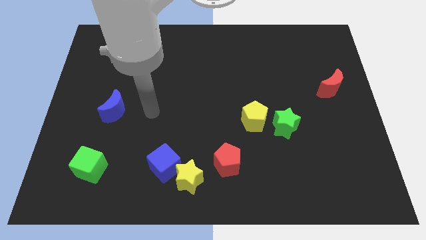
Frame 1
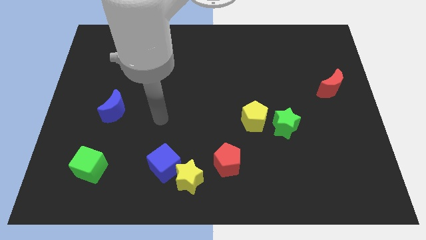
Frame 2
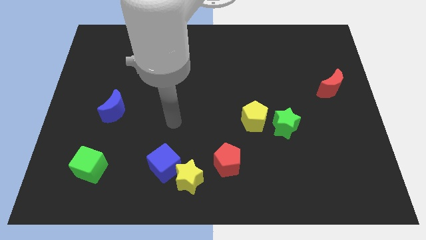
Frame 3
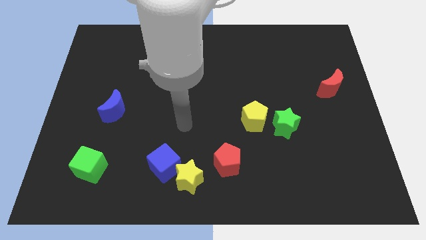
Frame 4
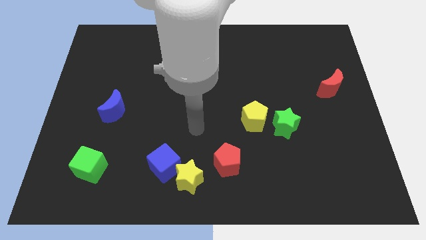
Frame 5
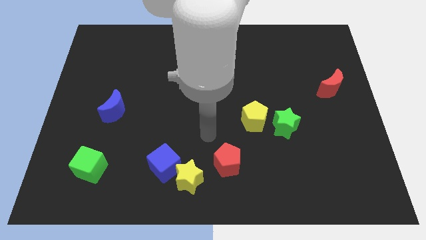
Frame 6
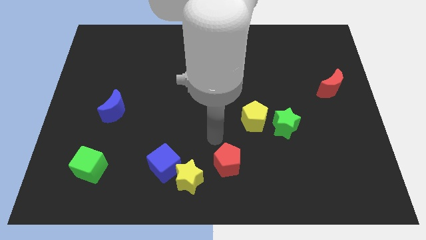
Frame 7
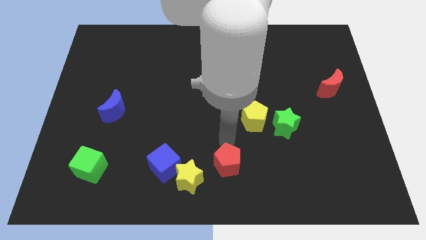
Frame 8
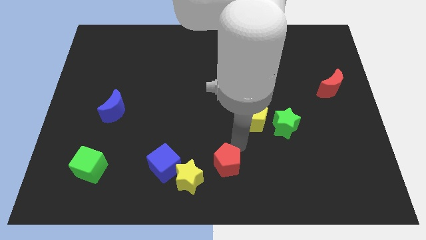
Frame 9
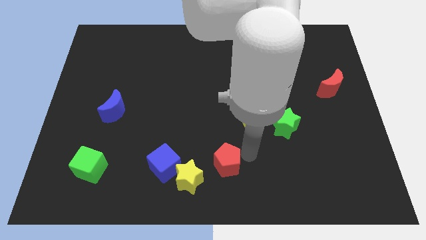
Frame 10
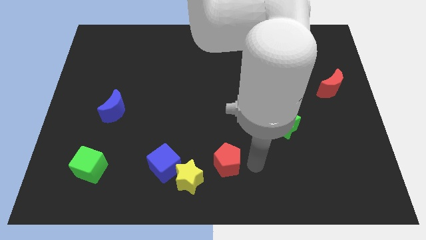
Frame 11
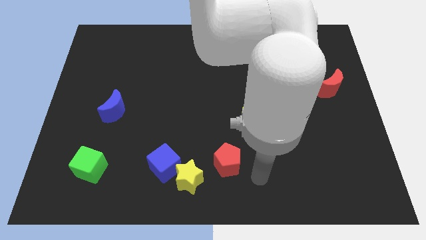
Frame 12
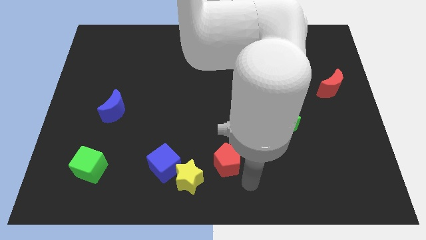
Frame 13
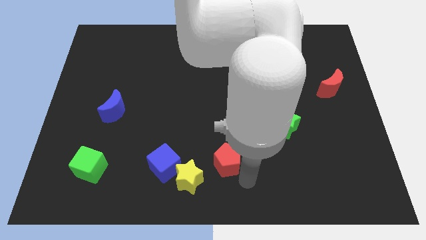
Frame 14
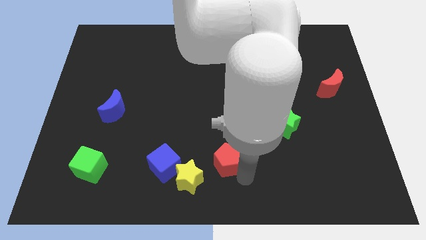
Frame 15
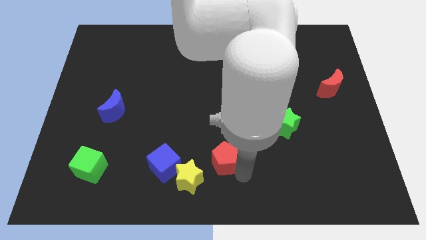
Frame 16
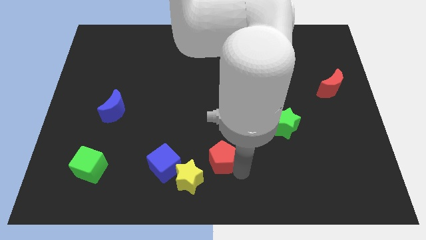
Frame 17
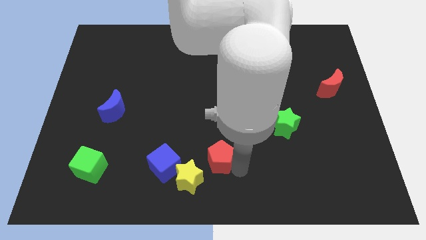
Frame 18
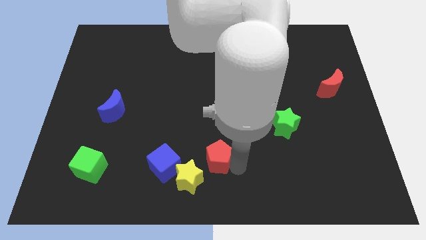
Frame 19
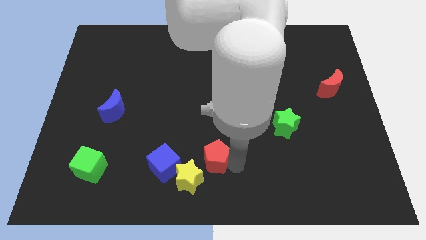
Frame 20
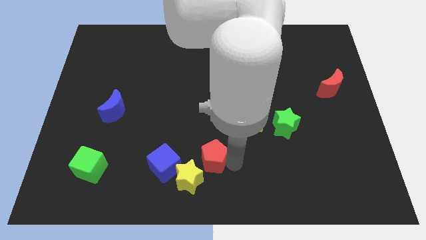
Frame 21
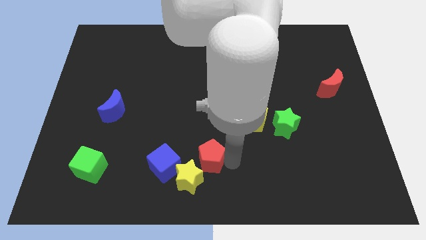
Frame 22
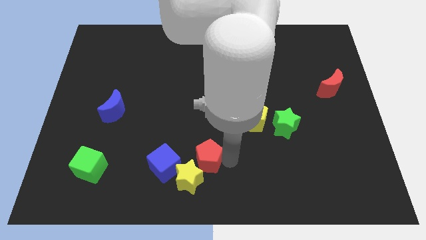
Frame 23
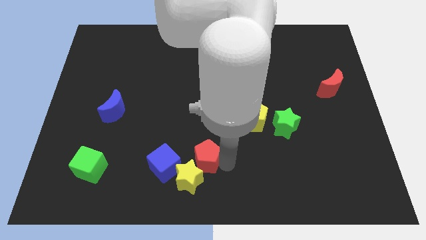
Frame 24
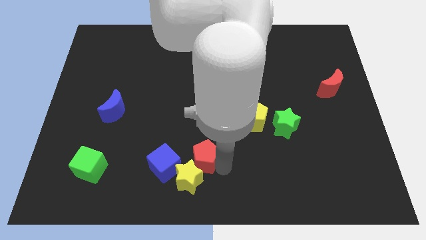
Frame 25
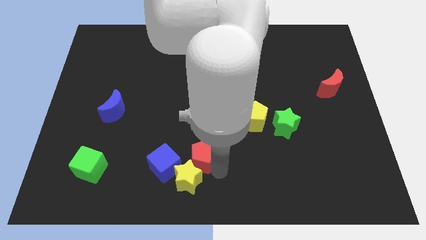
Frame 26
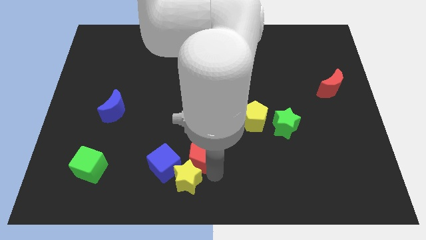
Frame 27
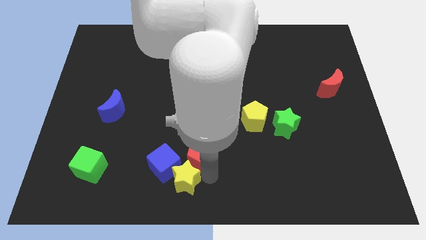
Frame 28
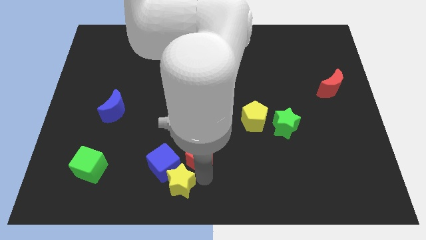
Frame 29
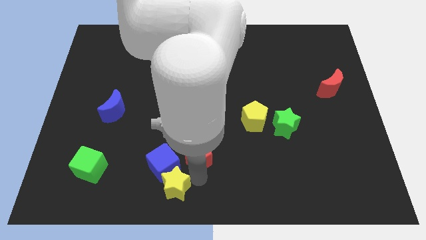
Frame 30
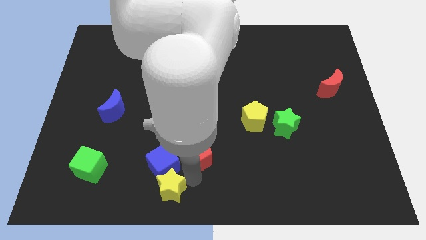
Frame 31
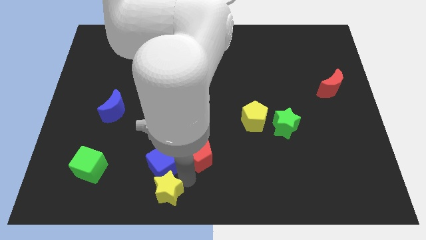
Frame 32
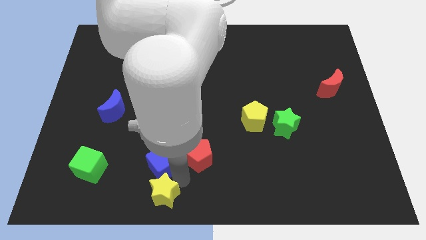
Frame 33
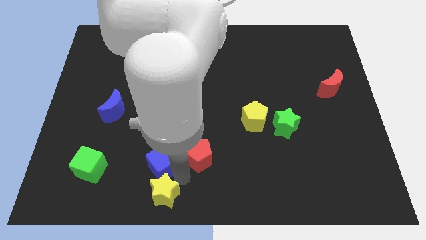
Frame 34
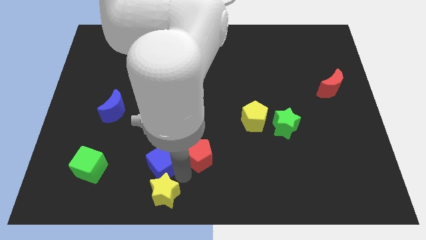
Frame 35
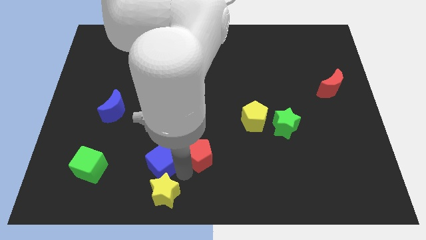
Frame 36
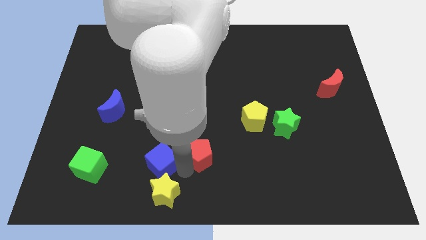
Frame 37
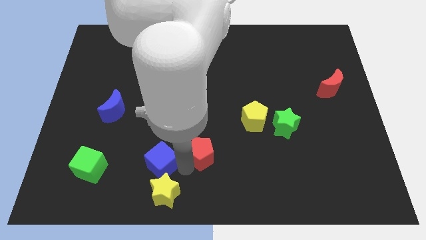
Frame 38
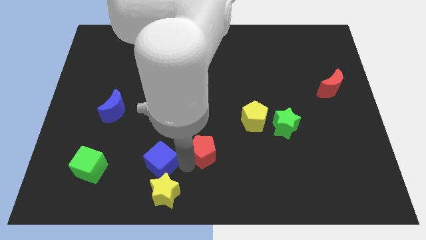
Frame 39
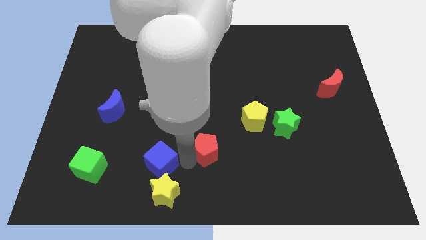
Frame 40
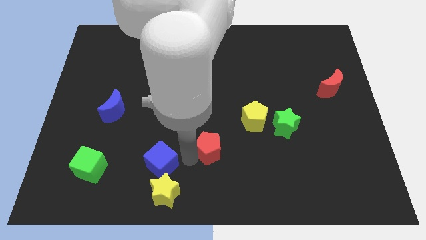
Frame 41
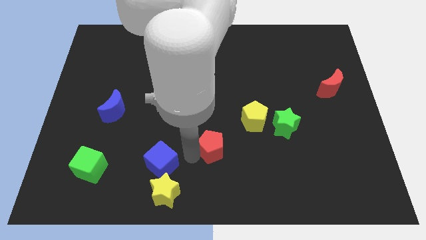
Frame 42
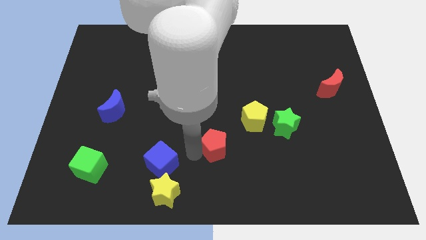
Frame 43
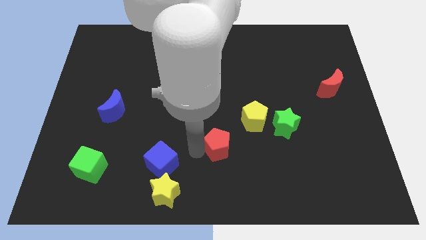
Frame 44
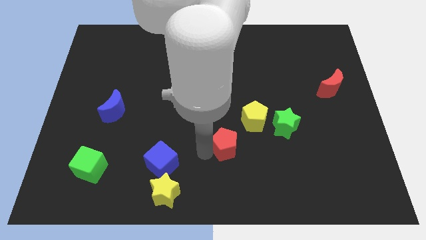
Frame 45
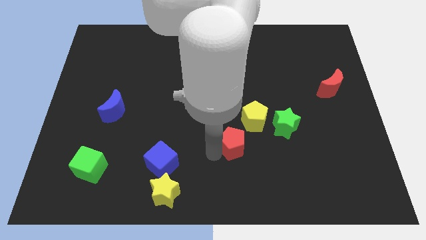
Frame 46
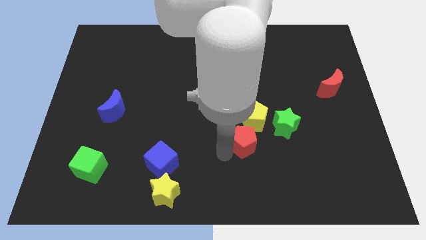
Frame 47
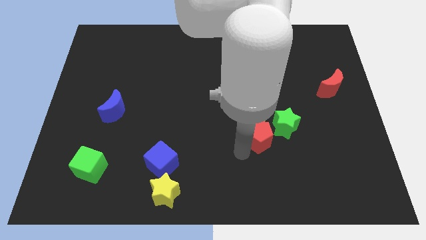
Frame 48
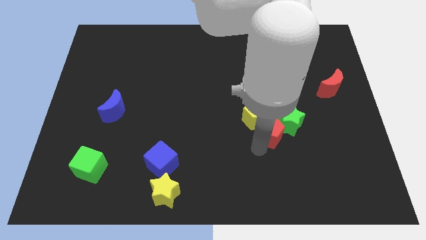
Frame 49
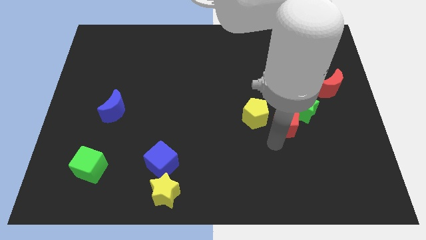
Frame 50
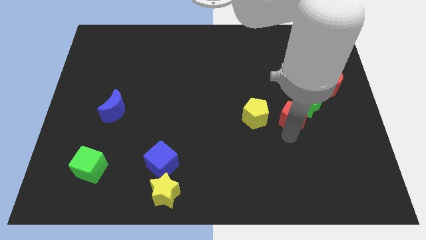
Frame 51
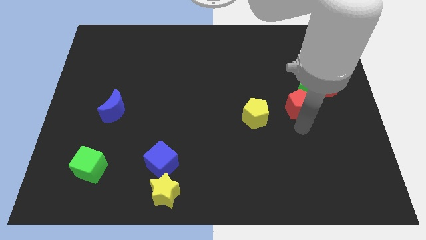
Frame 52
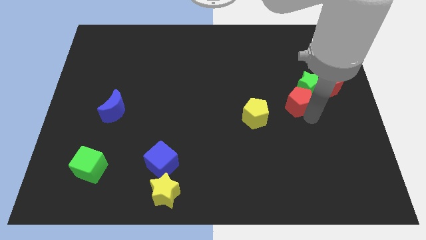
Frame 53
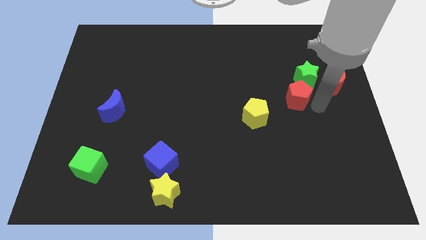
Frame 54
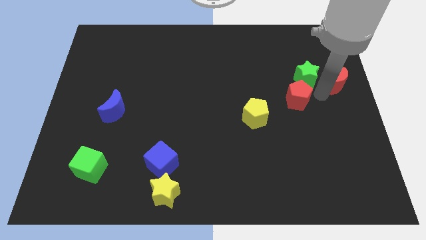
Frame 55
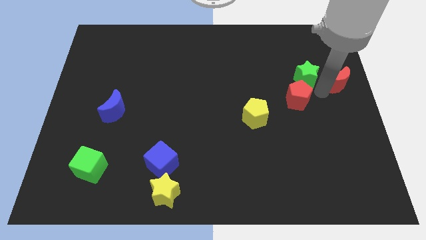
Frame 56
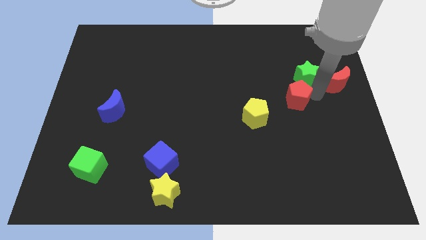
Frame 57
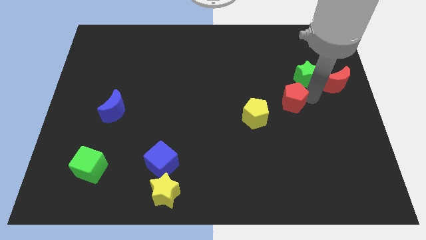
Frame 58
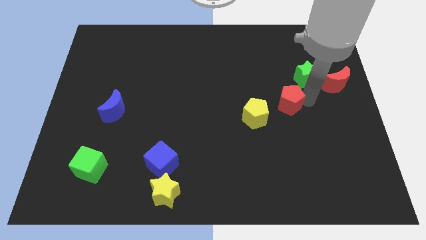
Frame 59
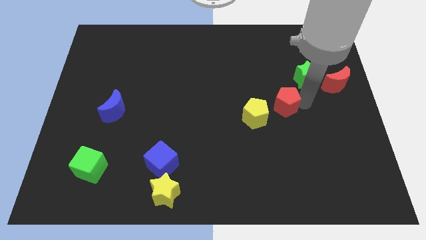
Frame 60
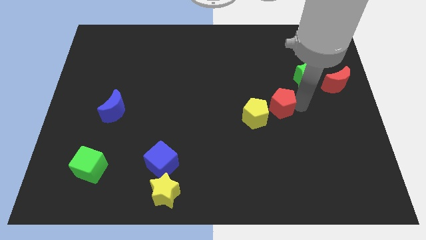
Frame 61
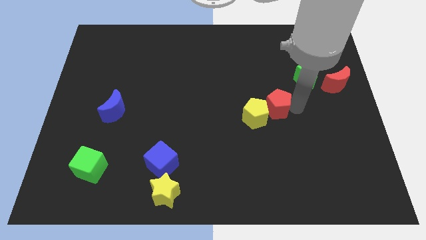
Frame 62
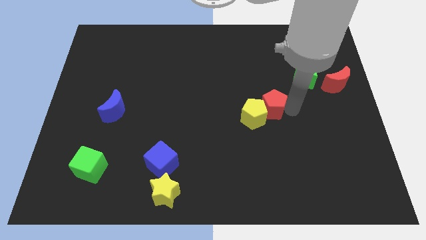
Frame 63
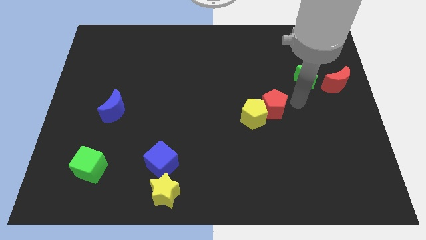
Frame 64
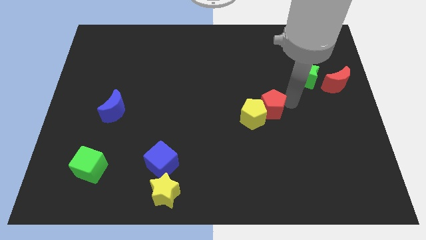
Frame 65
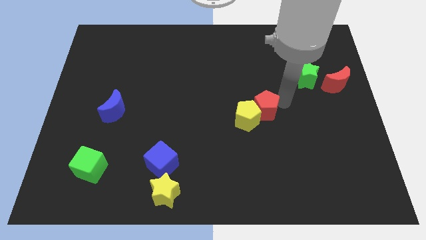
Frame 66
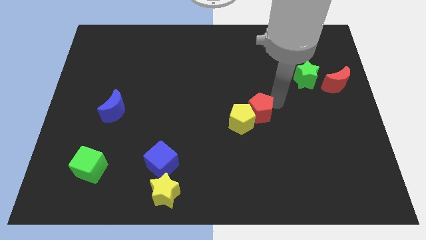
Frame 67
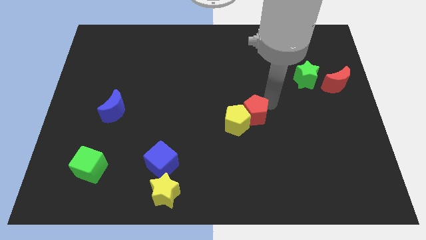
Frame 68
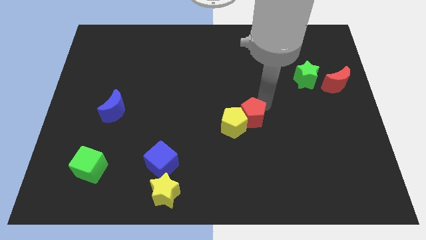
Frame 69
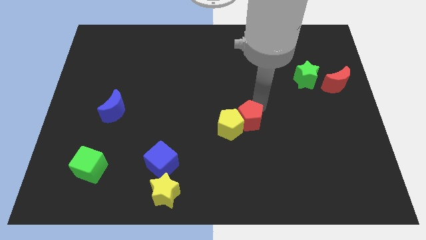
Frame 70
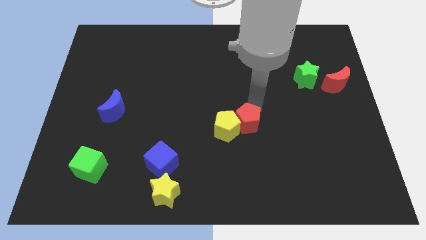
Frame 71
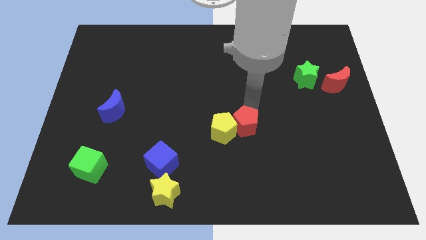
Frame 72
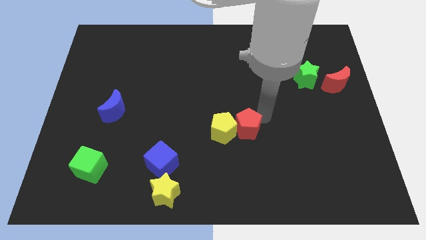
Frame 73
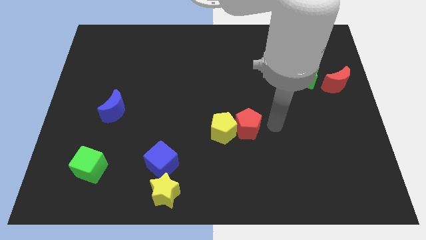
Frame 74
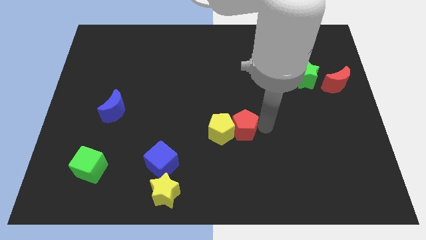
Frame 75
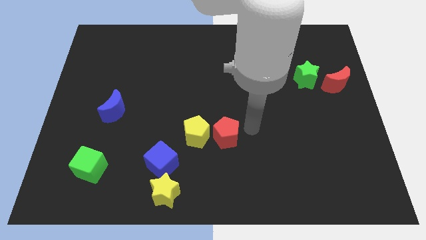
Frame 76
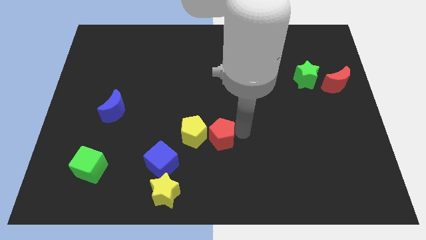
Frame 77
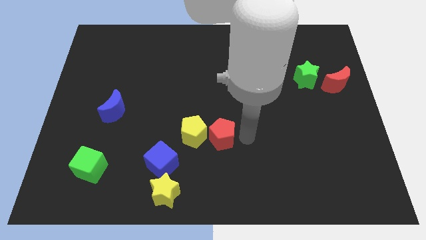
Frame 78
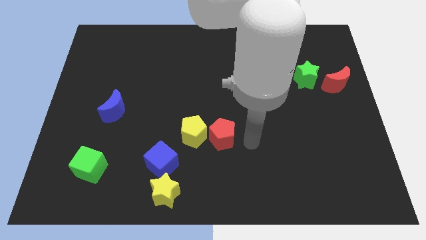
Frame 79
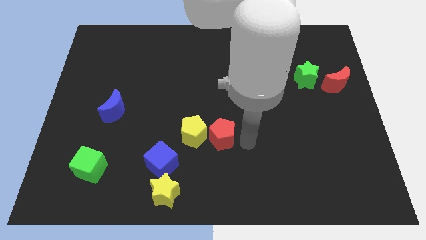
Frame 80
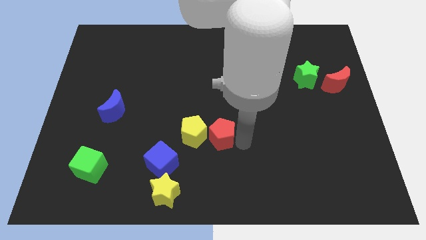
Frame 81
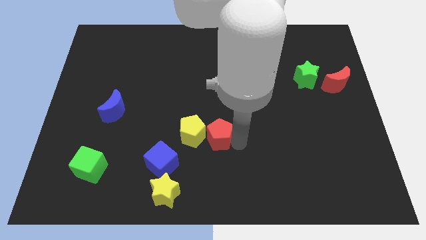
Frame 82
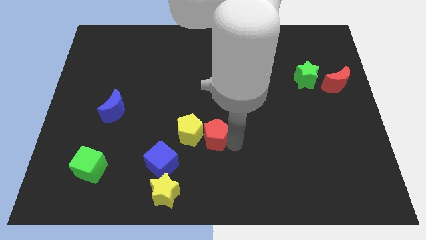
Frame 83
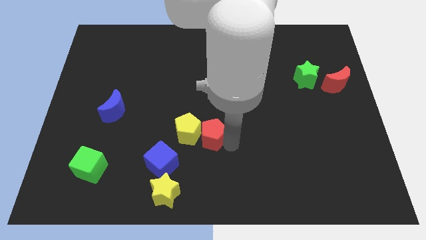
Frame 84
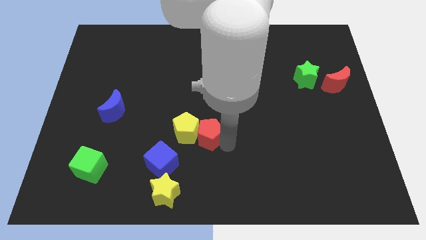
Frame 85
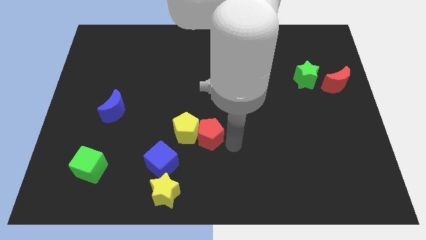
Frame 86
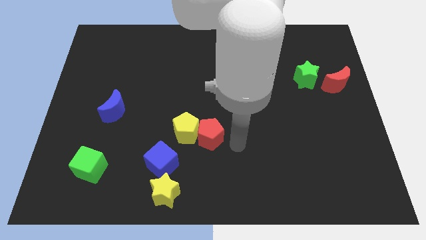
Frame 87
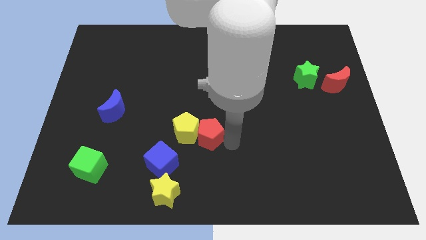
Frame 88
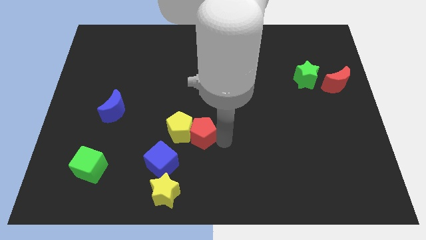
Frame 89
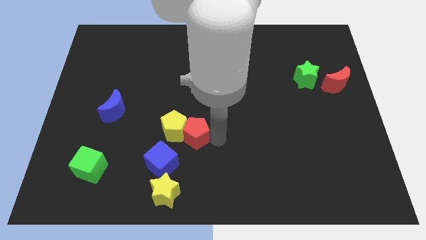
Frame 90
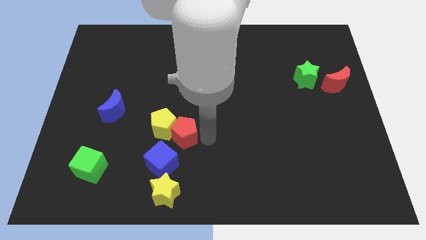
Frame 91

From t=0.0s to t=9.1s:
move the red pentagon to the top side of the blue cube
